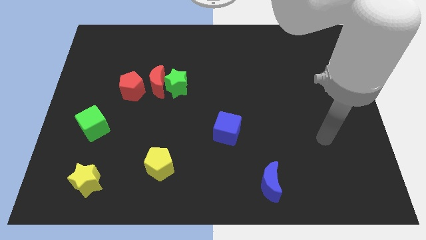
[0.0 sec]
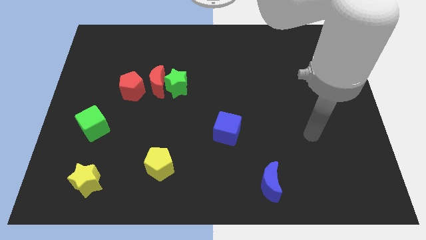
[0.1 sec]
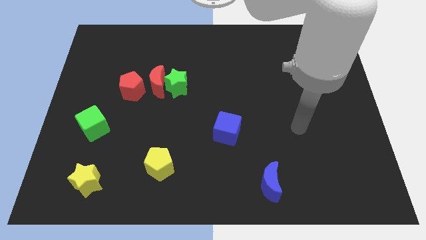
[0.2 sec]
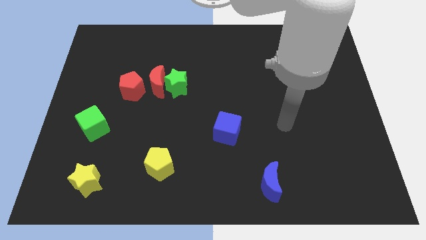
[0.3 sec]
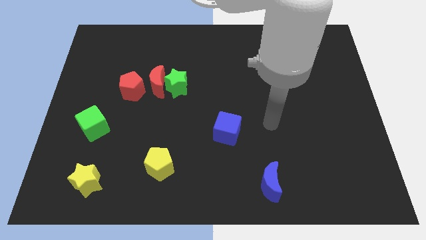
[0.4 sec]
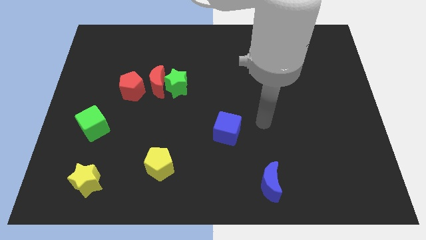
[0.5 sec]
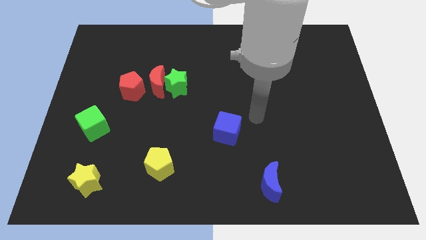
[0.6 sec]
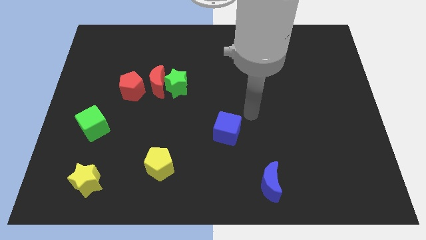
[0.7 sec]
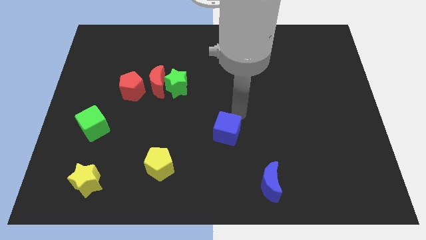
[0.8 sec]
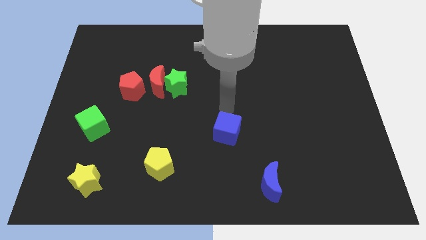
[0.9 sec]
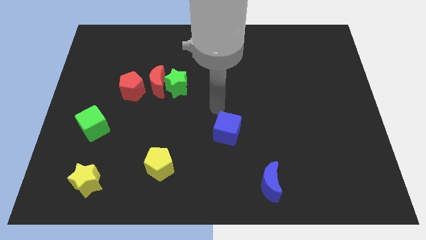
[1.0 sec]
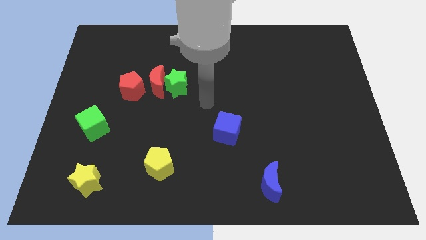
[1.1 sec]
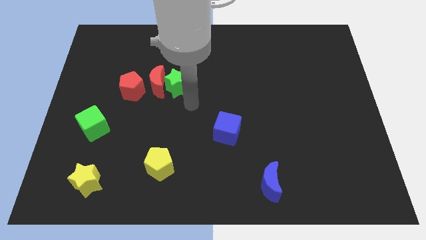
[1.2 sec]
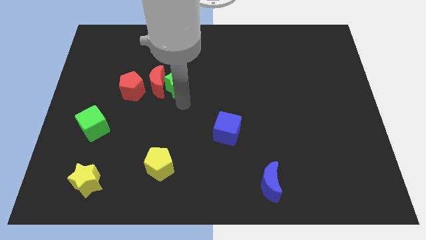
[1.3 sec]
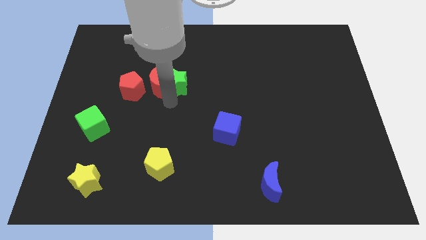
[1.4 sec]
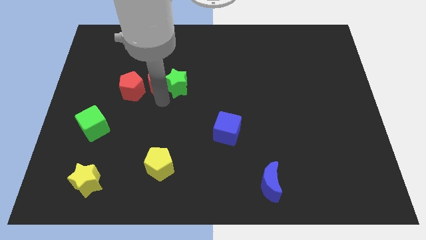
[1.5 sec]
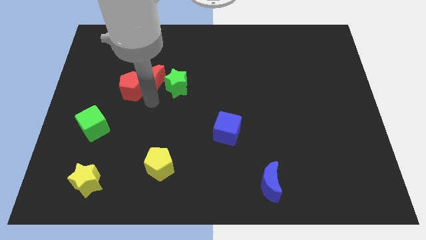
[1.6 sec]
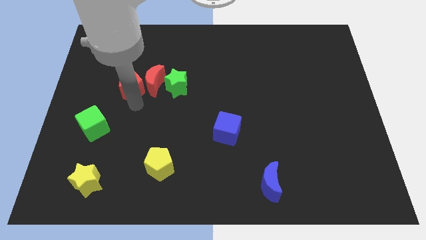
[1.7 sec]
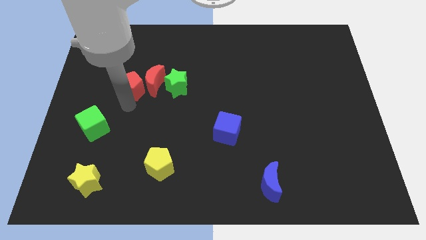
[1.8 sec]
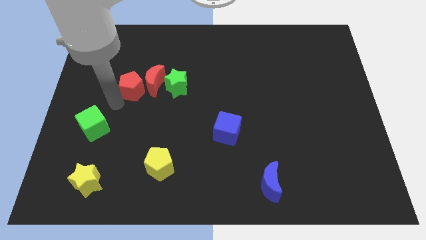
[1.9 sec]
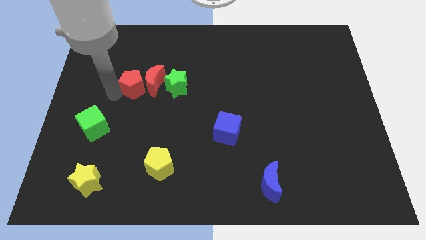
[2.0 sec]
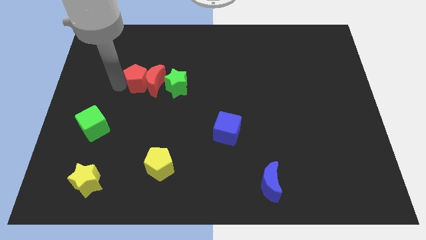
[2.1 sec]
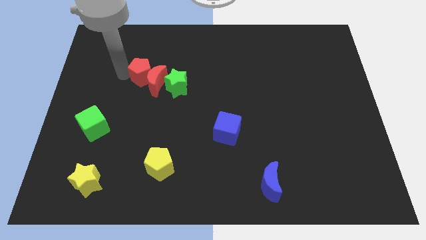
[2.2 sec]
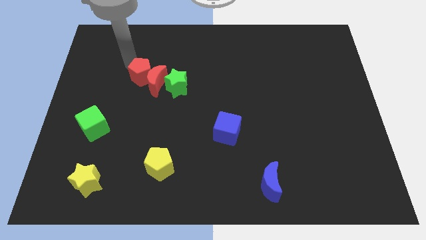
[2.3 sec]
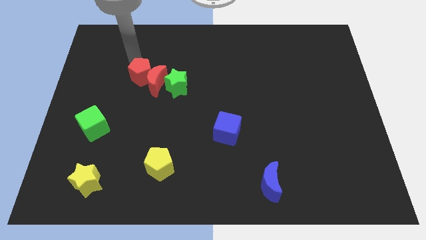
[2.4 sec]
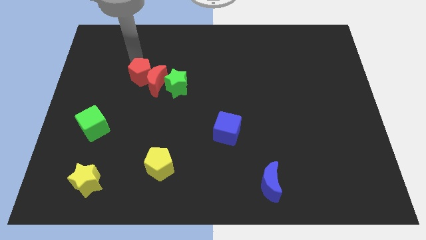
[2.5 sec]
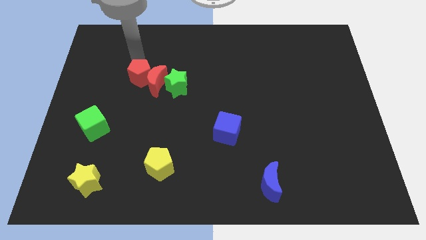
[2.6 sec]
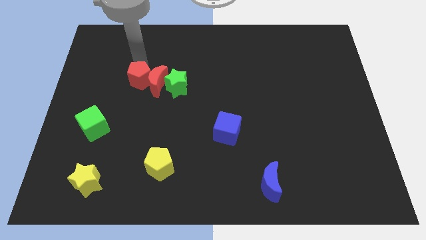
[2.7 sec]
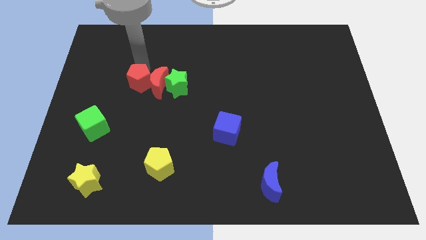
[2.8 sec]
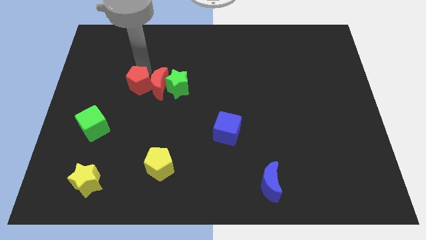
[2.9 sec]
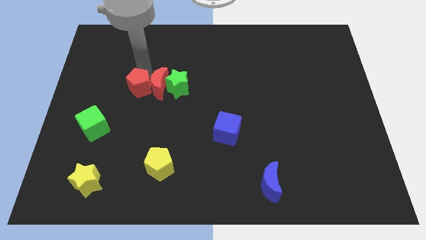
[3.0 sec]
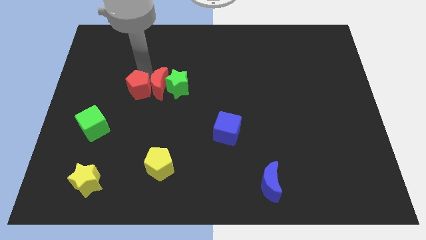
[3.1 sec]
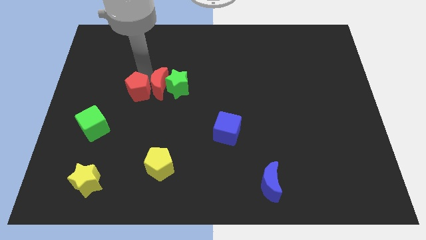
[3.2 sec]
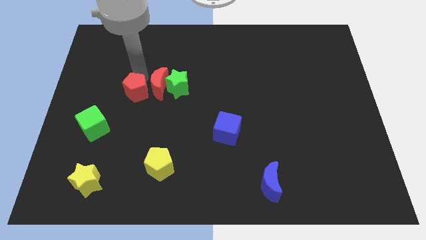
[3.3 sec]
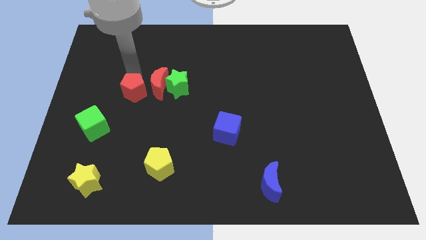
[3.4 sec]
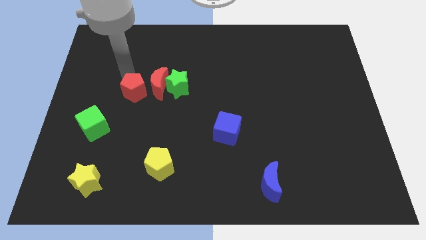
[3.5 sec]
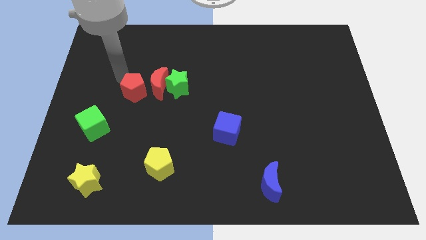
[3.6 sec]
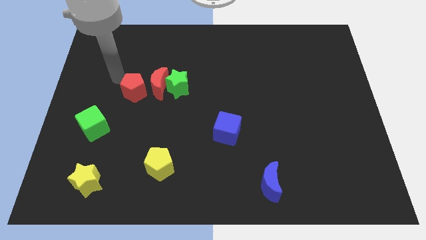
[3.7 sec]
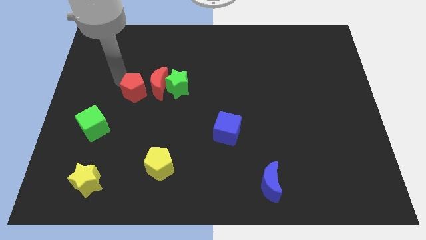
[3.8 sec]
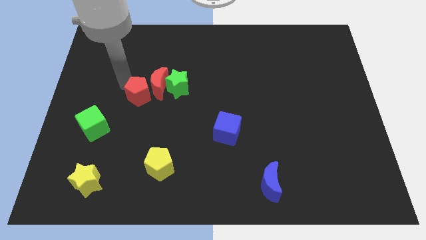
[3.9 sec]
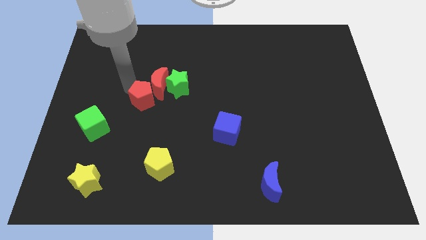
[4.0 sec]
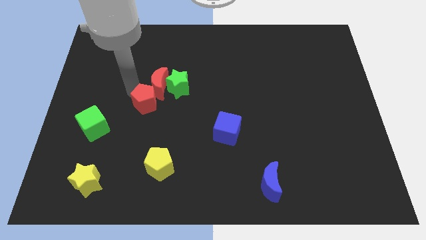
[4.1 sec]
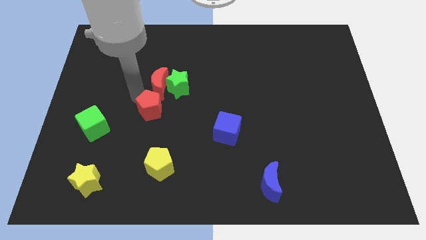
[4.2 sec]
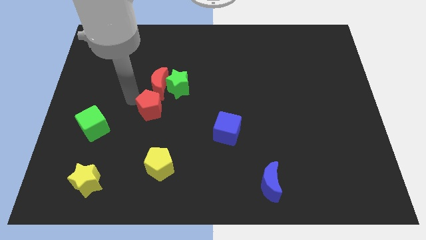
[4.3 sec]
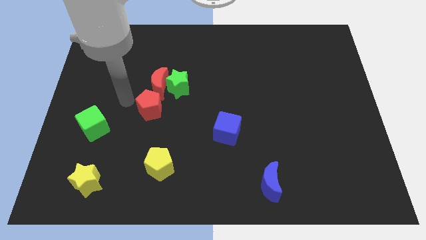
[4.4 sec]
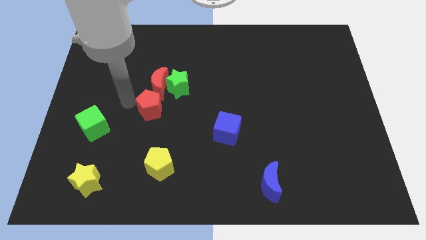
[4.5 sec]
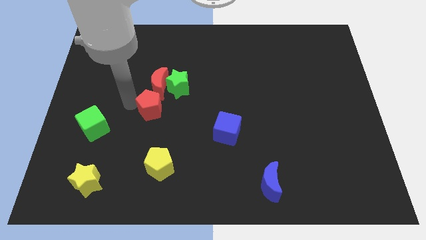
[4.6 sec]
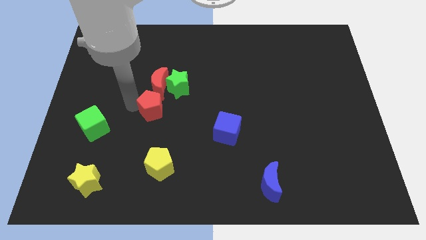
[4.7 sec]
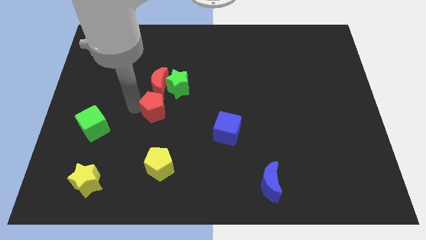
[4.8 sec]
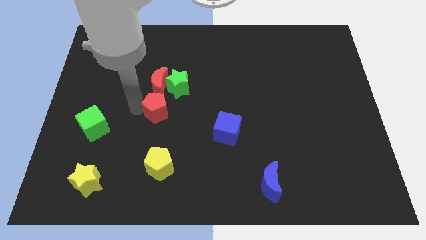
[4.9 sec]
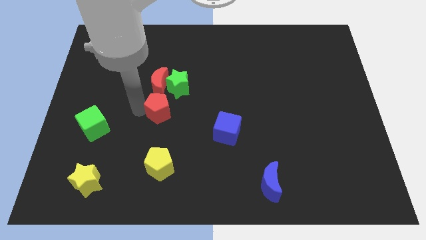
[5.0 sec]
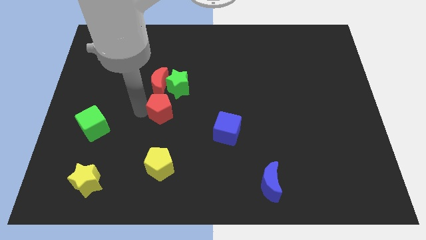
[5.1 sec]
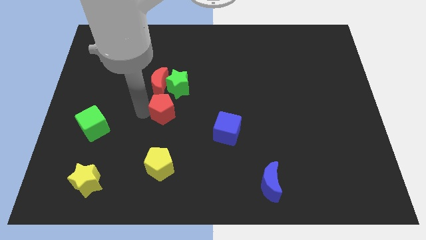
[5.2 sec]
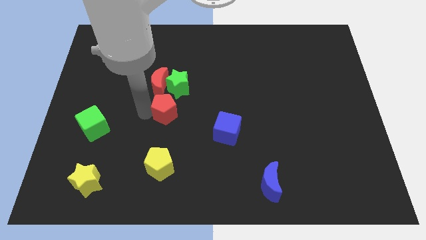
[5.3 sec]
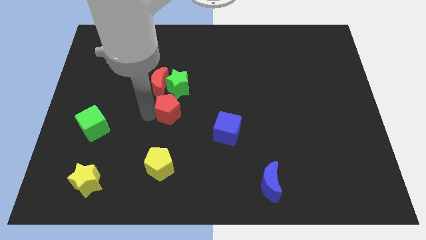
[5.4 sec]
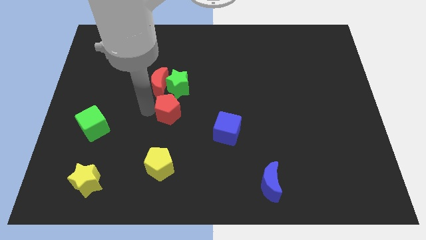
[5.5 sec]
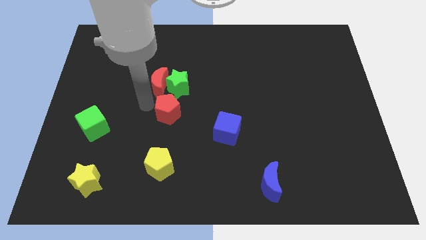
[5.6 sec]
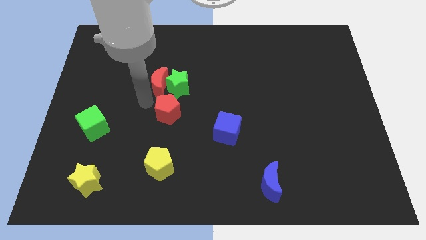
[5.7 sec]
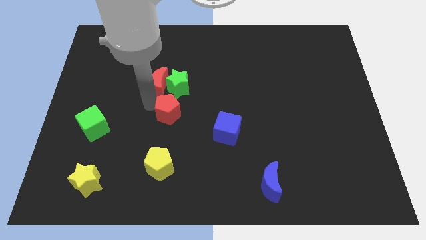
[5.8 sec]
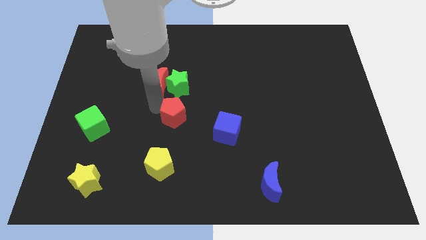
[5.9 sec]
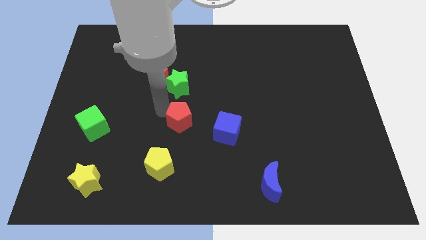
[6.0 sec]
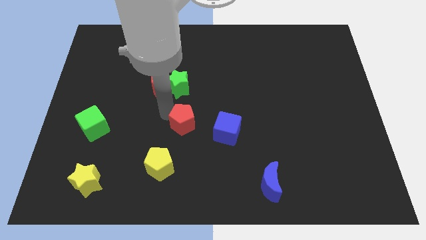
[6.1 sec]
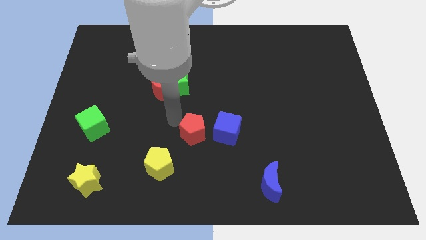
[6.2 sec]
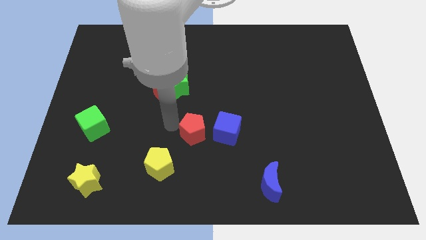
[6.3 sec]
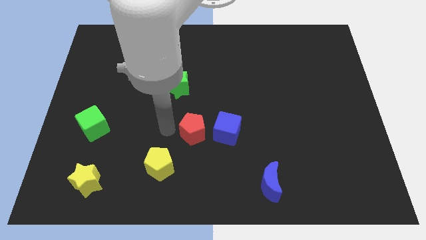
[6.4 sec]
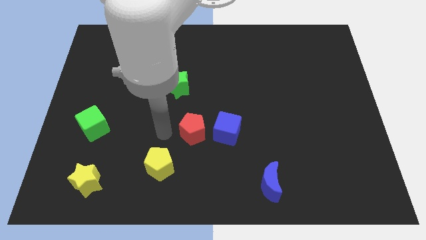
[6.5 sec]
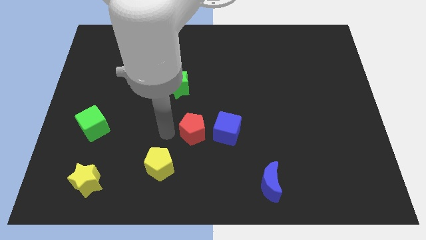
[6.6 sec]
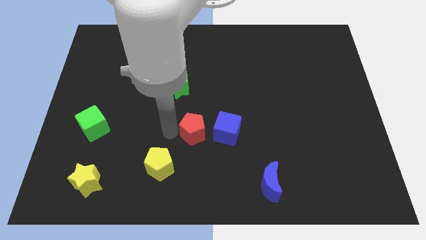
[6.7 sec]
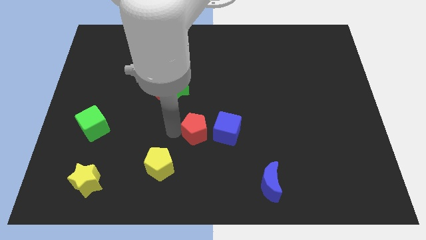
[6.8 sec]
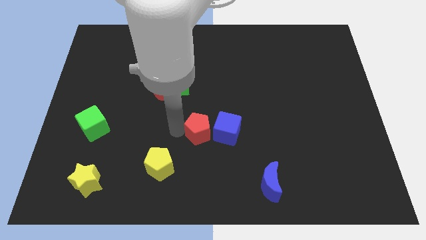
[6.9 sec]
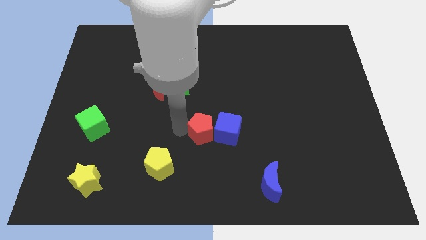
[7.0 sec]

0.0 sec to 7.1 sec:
push the red pentagon towards the blue cube
